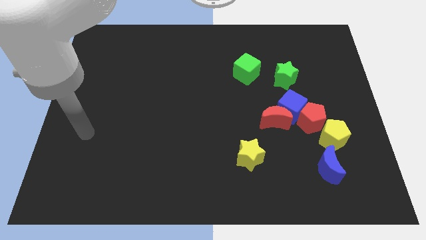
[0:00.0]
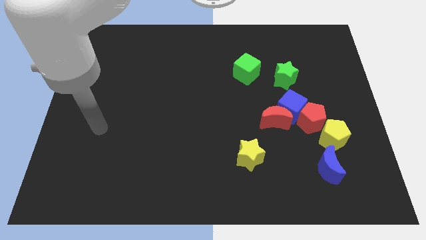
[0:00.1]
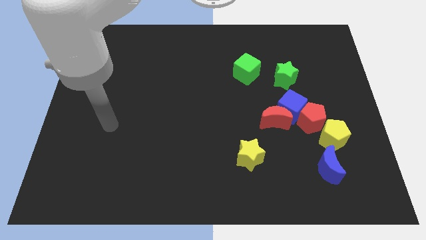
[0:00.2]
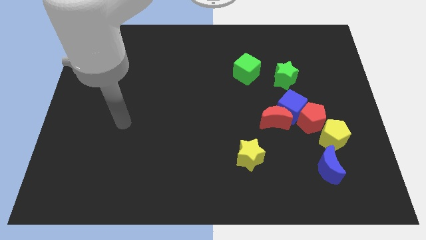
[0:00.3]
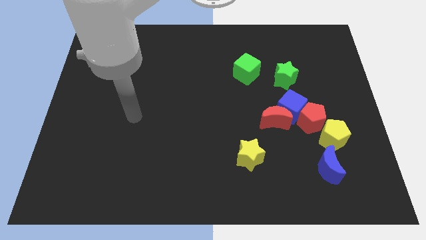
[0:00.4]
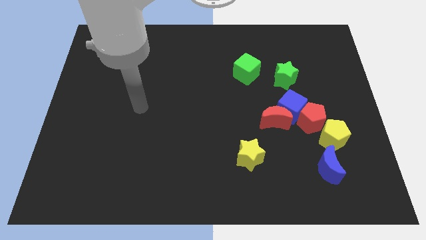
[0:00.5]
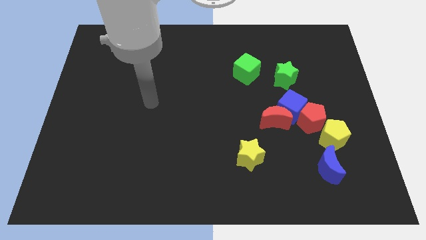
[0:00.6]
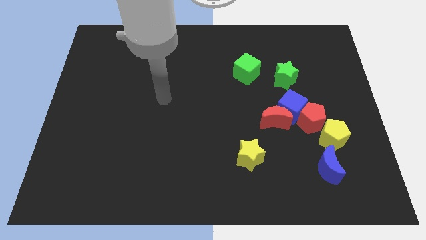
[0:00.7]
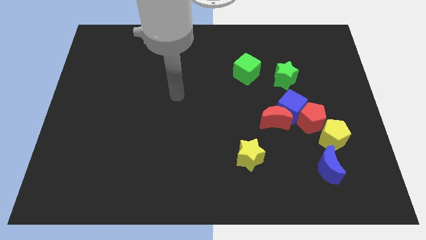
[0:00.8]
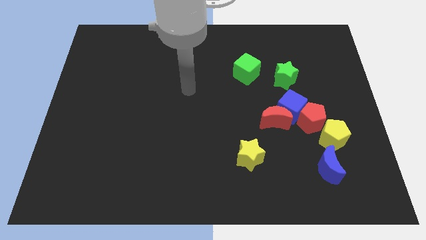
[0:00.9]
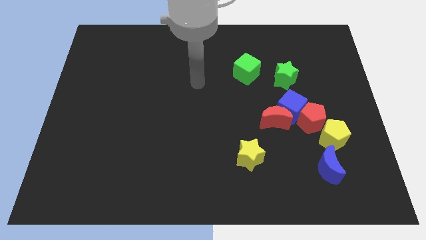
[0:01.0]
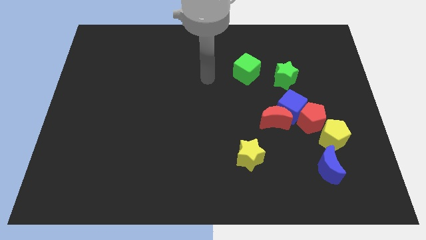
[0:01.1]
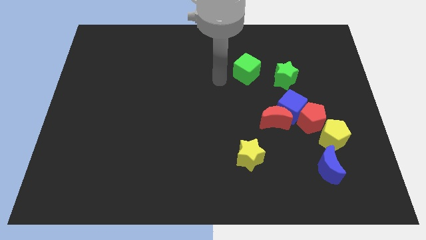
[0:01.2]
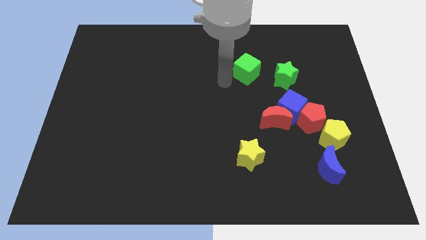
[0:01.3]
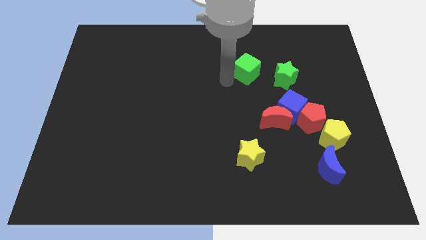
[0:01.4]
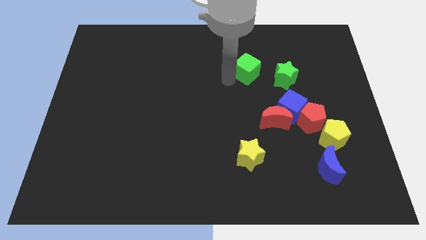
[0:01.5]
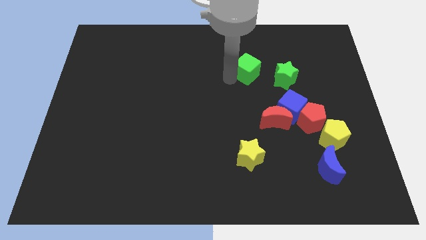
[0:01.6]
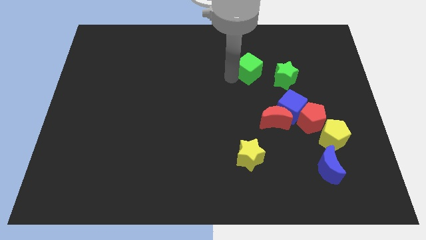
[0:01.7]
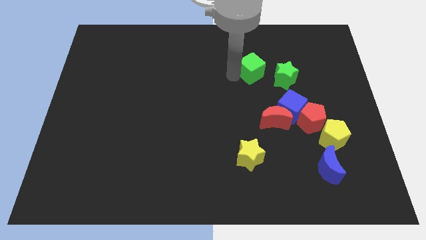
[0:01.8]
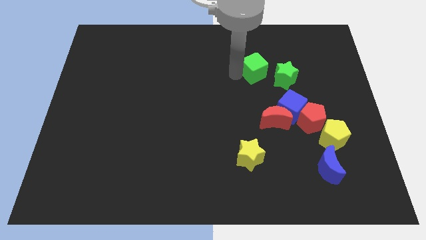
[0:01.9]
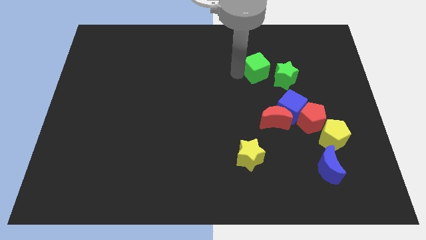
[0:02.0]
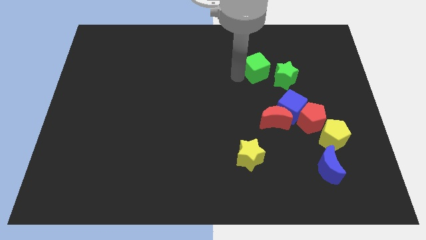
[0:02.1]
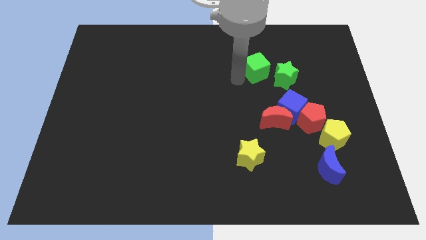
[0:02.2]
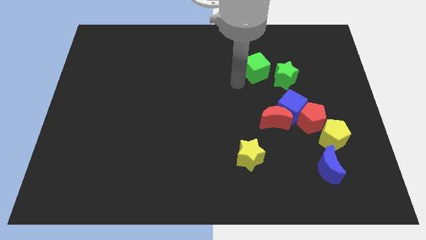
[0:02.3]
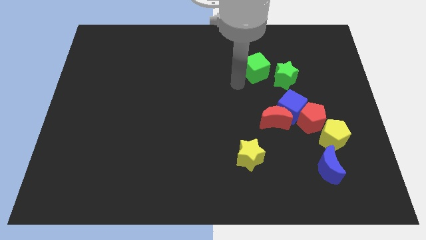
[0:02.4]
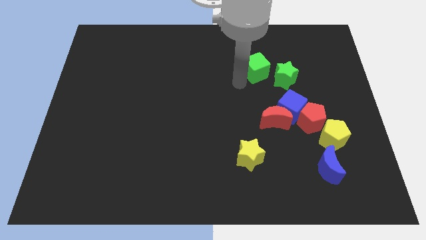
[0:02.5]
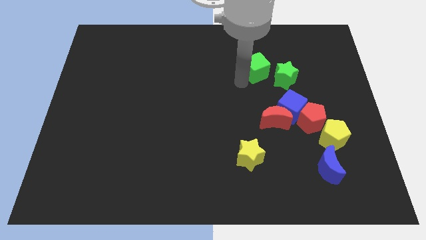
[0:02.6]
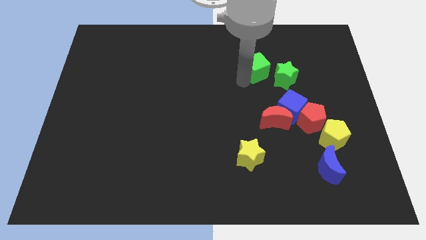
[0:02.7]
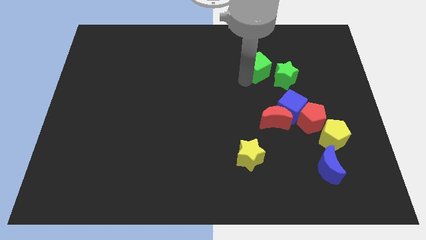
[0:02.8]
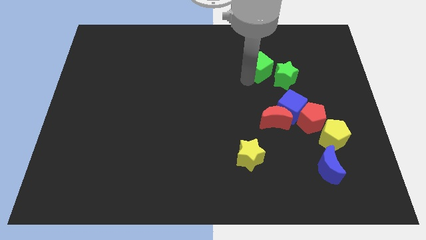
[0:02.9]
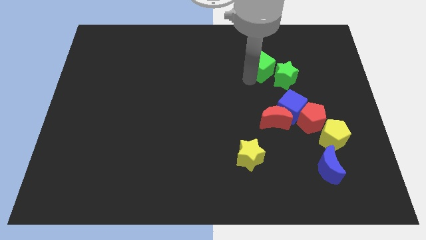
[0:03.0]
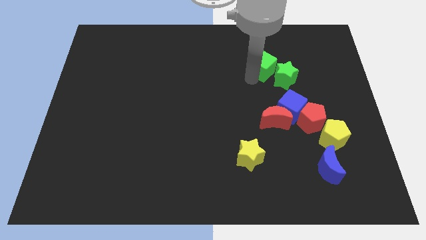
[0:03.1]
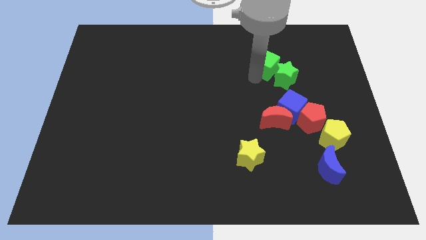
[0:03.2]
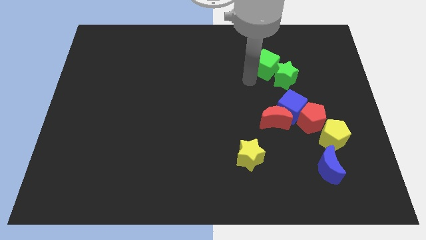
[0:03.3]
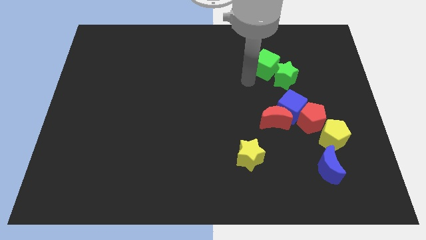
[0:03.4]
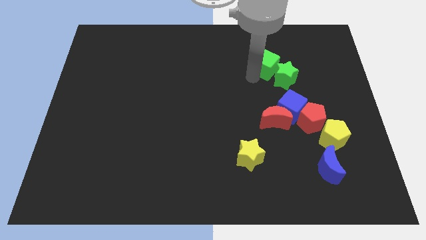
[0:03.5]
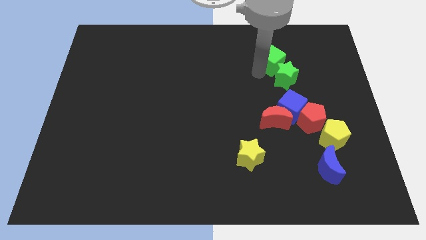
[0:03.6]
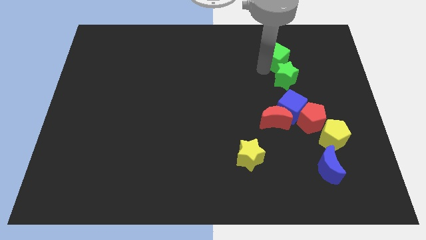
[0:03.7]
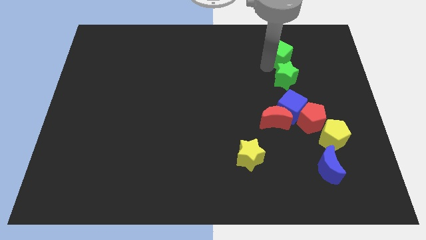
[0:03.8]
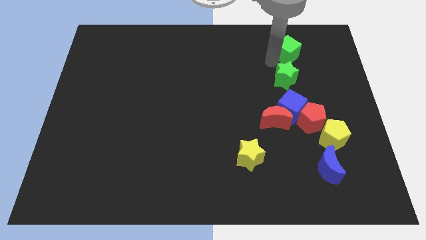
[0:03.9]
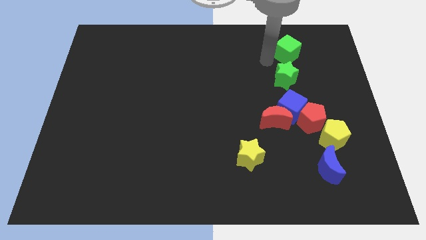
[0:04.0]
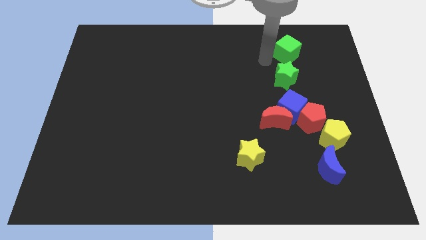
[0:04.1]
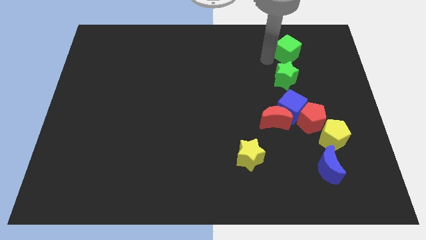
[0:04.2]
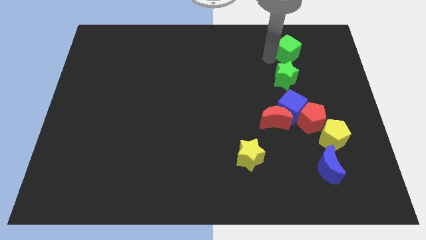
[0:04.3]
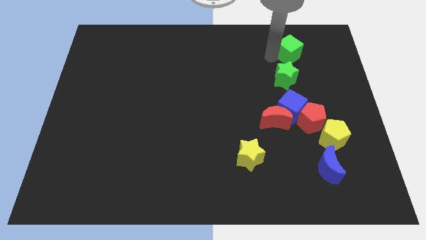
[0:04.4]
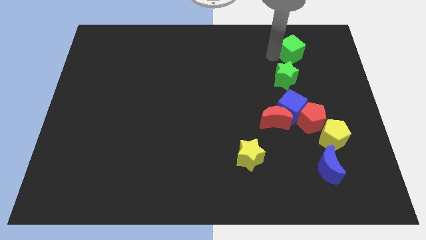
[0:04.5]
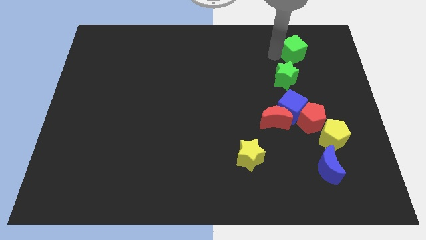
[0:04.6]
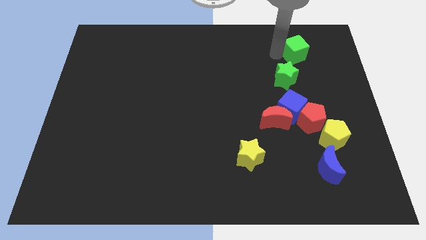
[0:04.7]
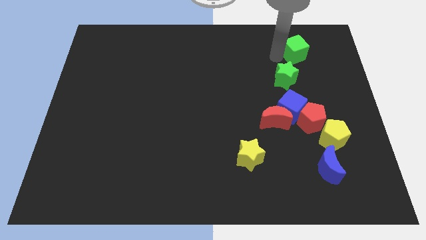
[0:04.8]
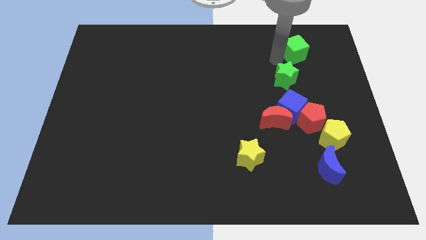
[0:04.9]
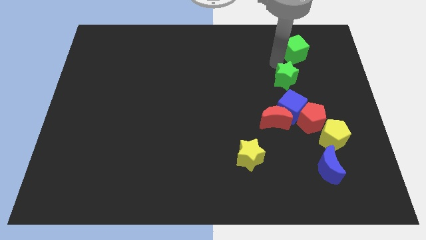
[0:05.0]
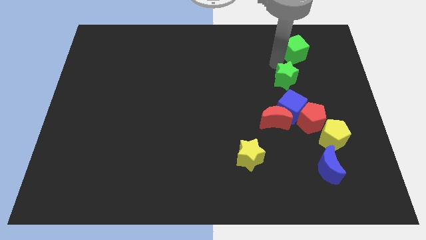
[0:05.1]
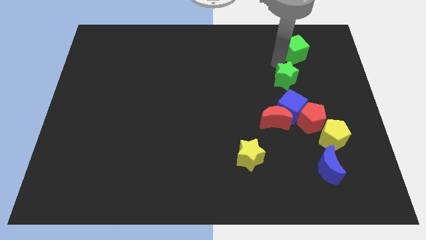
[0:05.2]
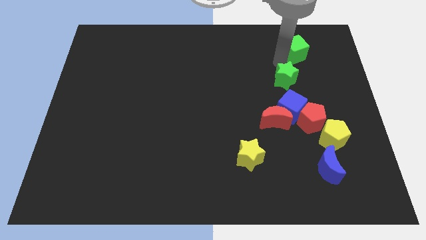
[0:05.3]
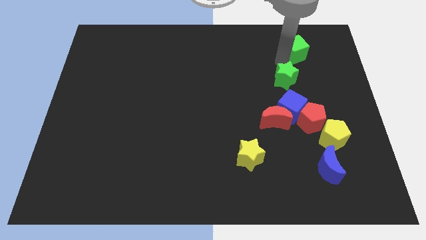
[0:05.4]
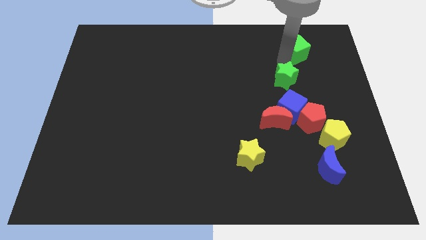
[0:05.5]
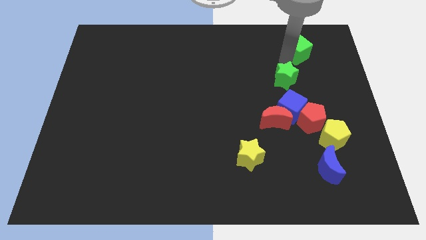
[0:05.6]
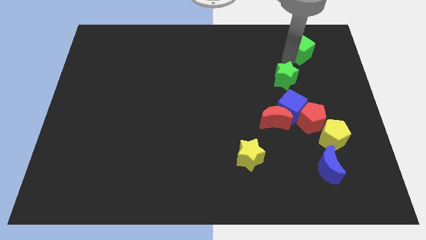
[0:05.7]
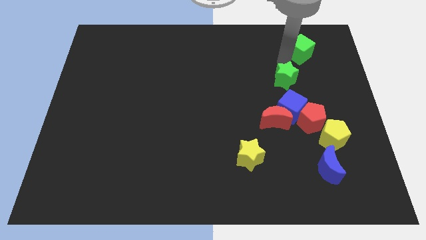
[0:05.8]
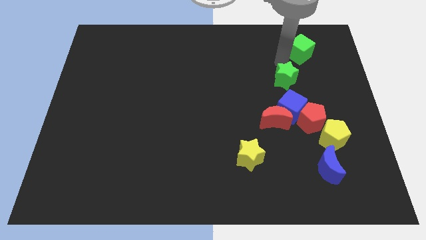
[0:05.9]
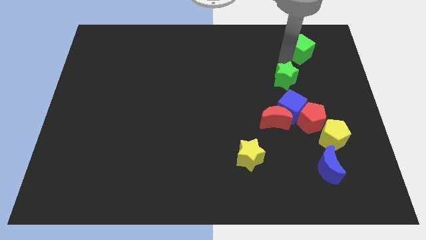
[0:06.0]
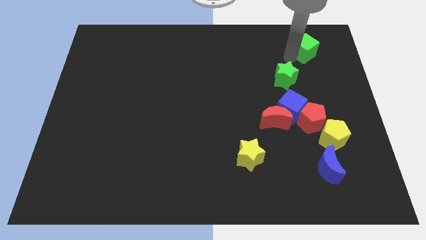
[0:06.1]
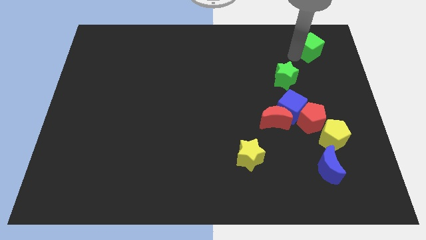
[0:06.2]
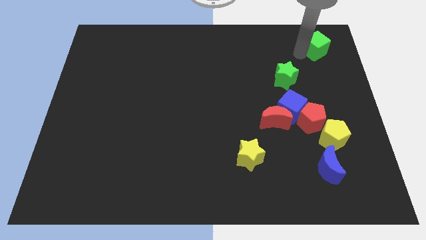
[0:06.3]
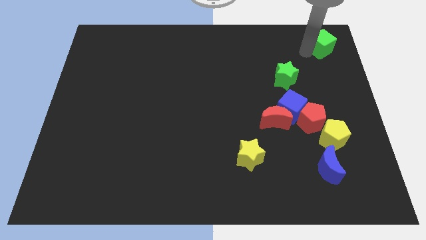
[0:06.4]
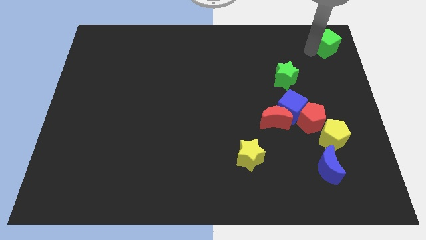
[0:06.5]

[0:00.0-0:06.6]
move the green cube to the upper right corner

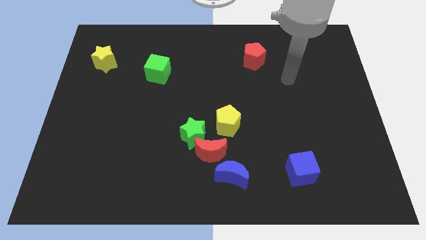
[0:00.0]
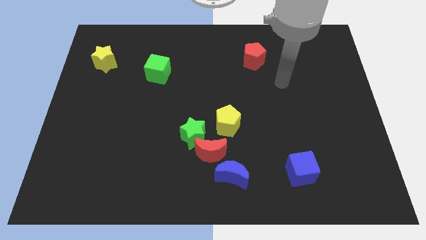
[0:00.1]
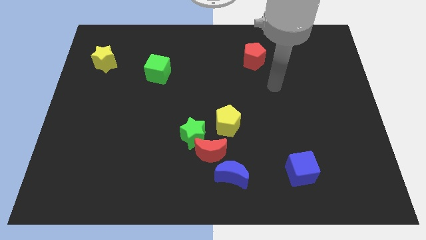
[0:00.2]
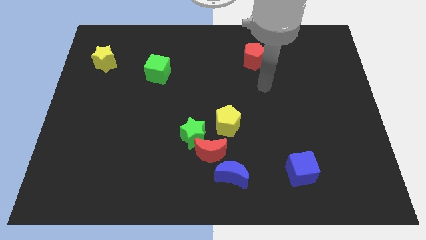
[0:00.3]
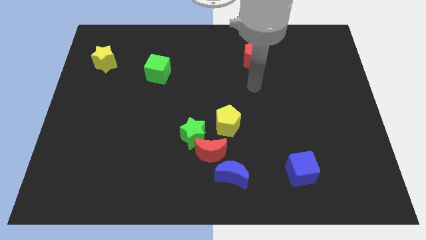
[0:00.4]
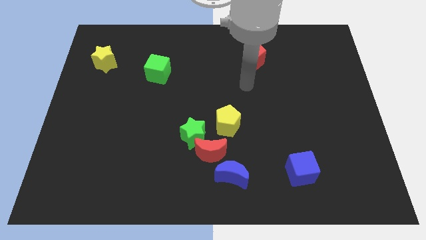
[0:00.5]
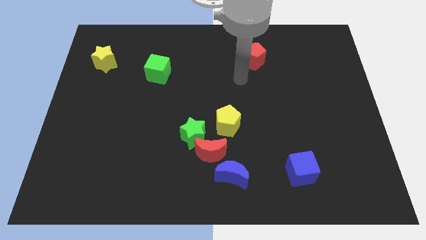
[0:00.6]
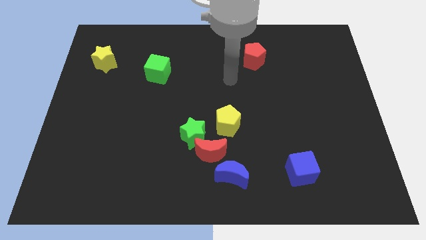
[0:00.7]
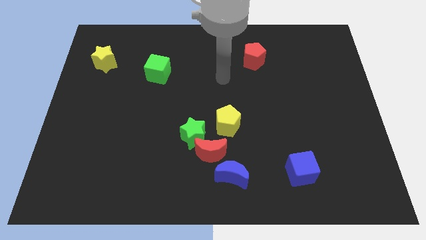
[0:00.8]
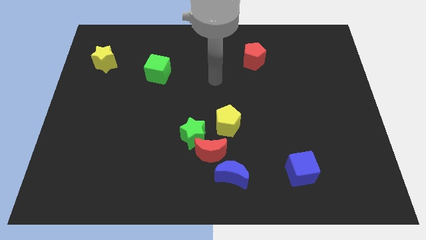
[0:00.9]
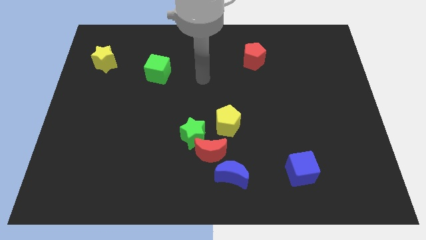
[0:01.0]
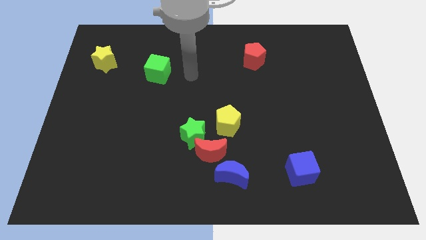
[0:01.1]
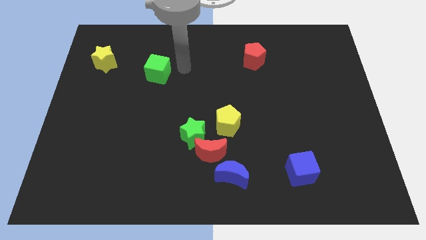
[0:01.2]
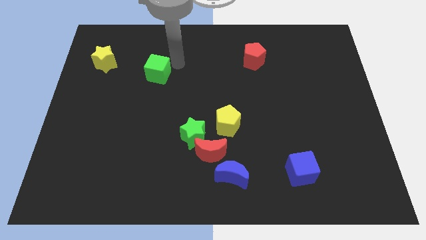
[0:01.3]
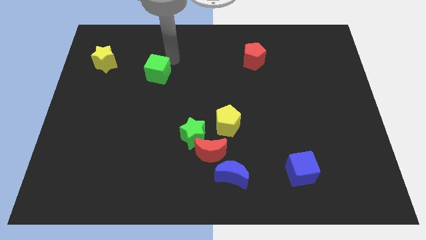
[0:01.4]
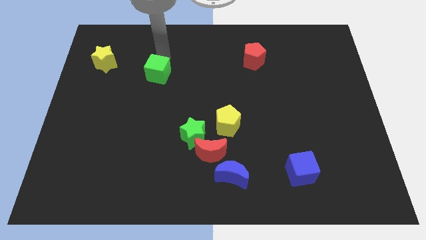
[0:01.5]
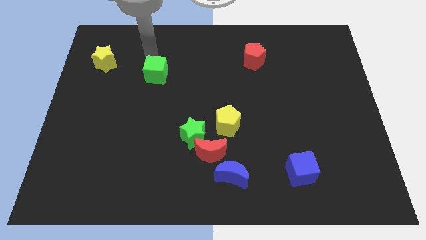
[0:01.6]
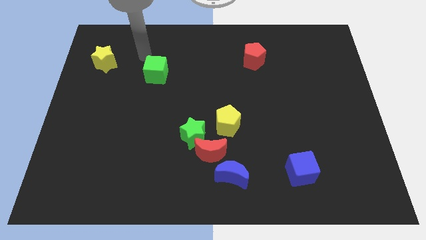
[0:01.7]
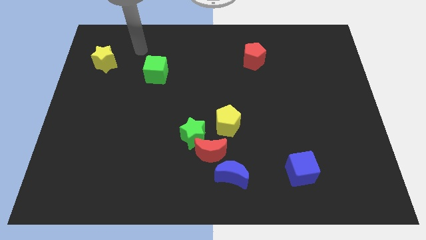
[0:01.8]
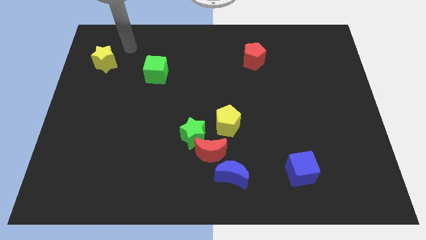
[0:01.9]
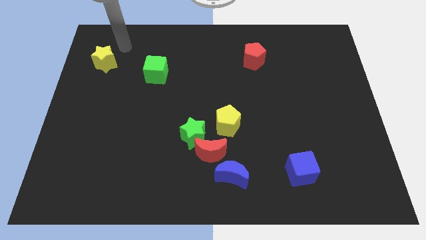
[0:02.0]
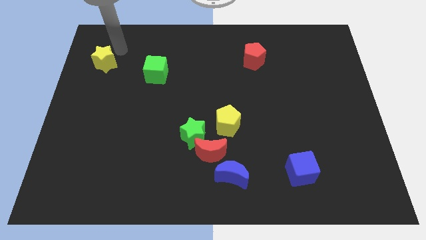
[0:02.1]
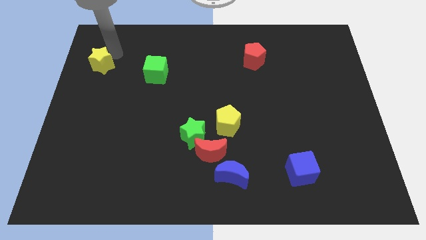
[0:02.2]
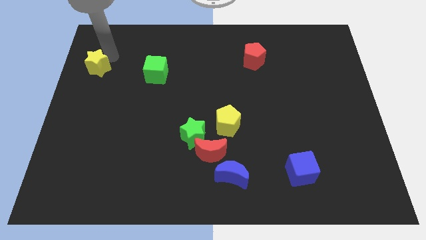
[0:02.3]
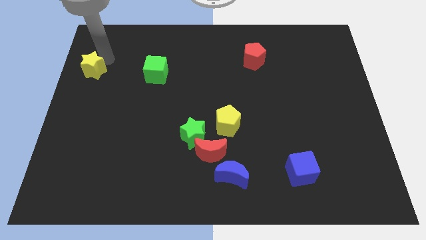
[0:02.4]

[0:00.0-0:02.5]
move the yellow star to the left side of the board
